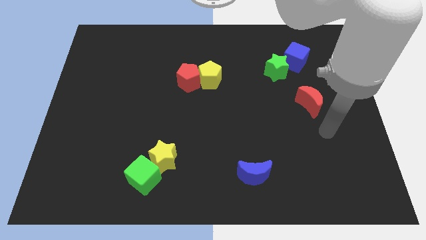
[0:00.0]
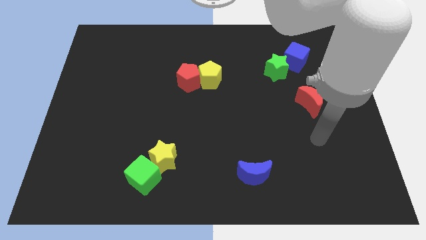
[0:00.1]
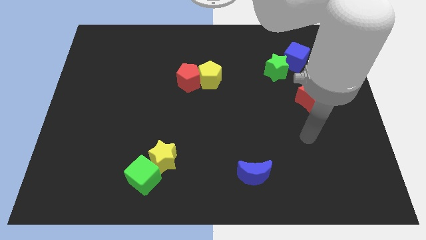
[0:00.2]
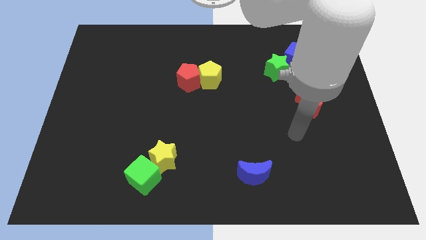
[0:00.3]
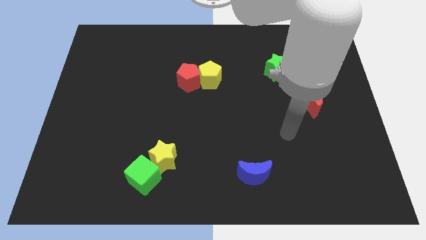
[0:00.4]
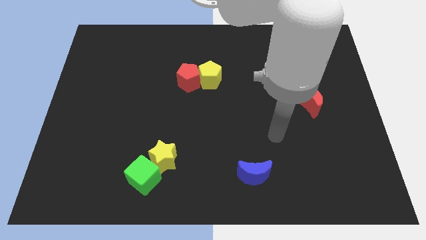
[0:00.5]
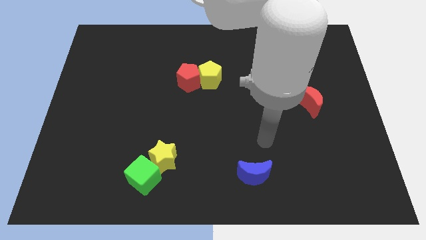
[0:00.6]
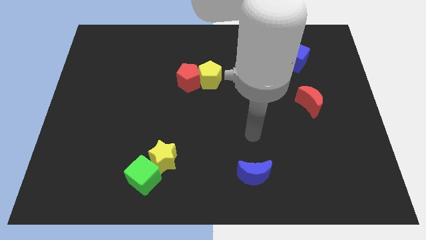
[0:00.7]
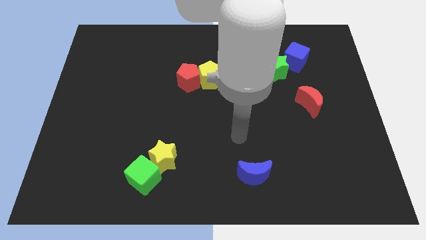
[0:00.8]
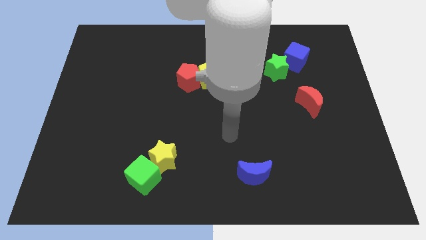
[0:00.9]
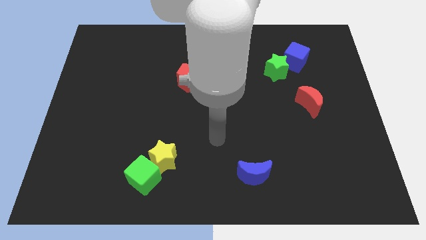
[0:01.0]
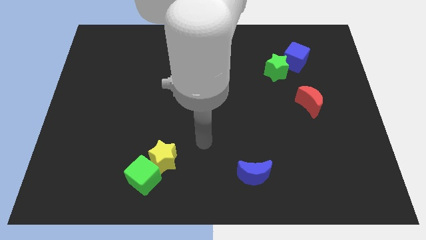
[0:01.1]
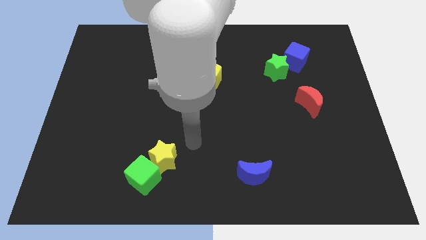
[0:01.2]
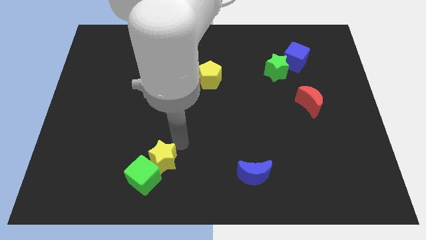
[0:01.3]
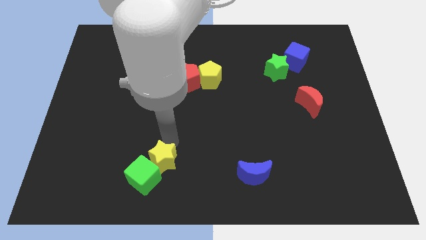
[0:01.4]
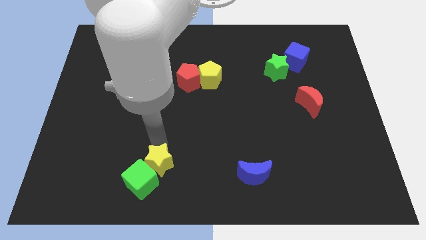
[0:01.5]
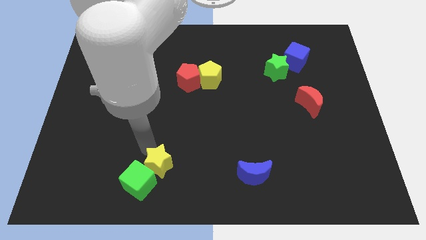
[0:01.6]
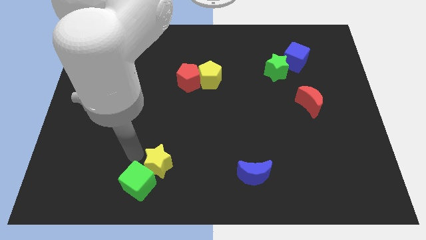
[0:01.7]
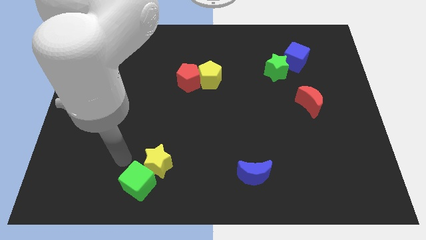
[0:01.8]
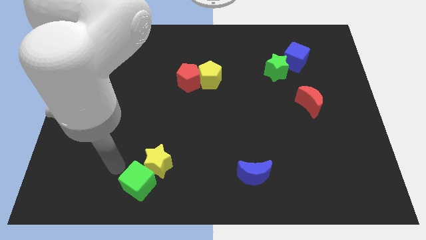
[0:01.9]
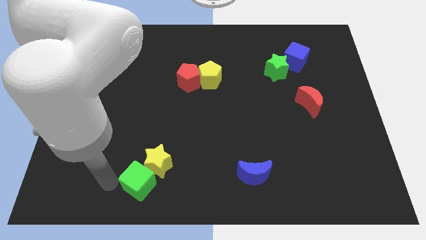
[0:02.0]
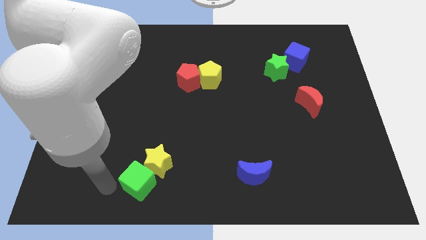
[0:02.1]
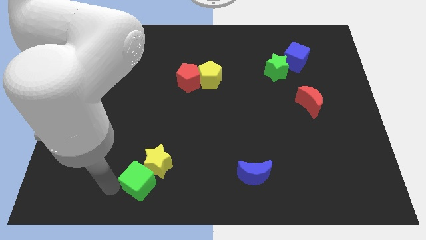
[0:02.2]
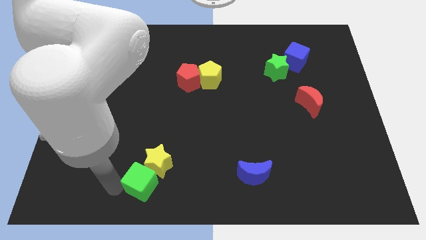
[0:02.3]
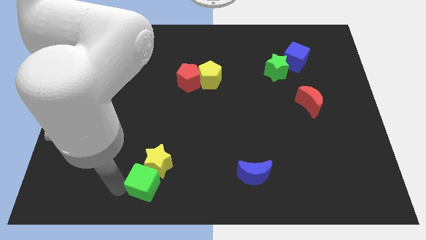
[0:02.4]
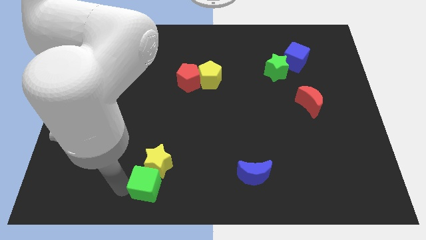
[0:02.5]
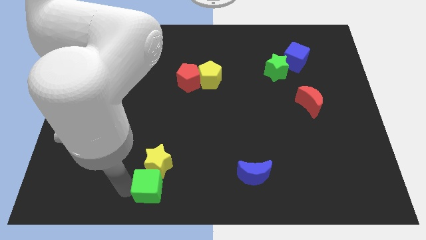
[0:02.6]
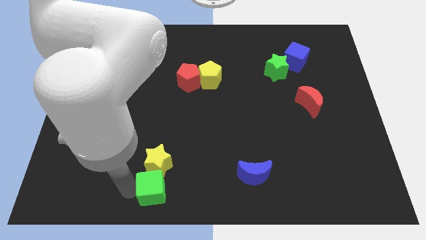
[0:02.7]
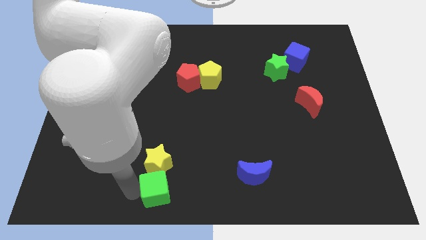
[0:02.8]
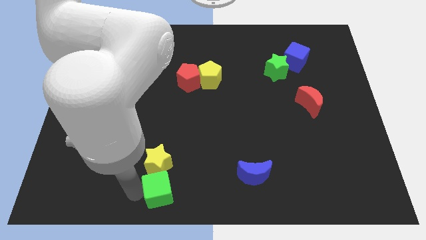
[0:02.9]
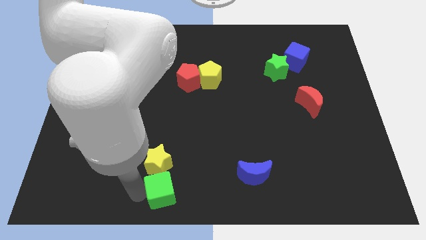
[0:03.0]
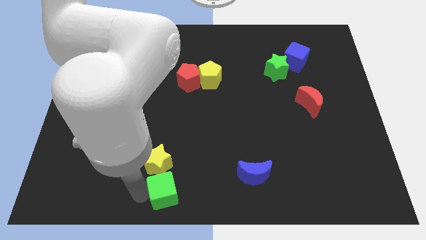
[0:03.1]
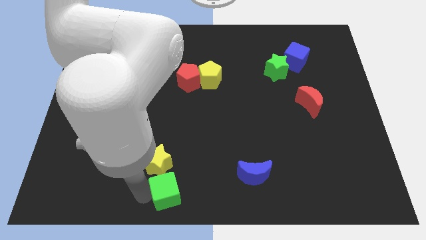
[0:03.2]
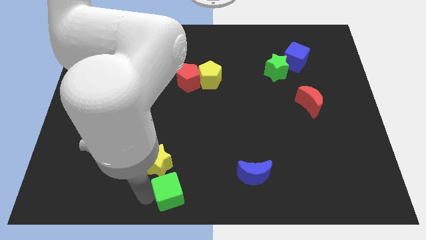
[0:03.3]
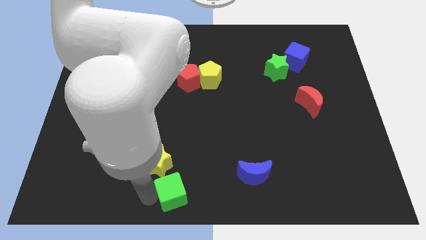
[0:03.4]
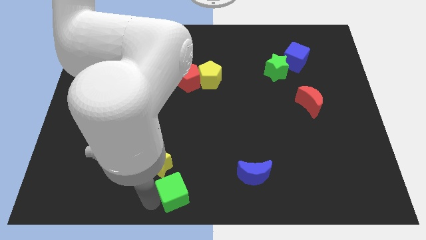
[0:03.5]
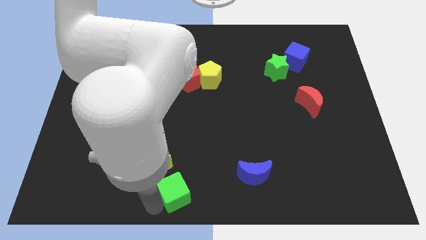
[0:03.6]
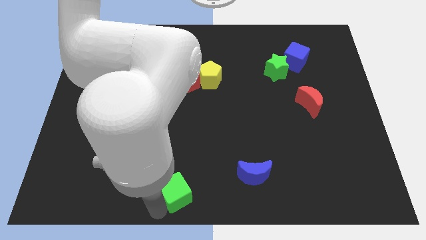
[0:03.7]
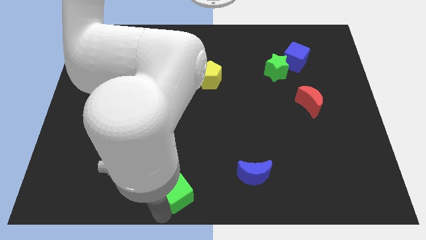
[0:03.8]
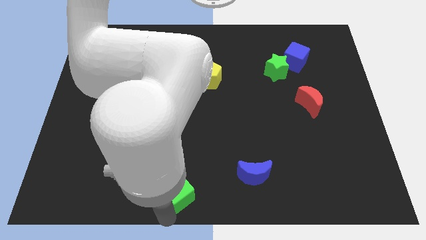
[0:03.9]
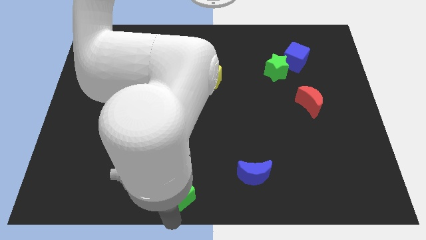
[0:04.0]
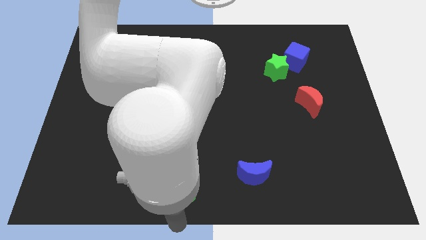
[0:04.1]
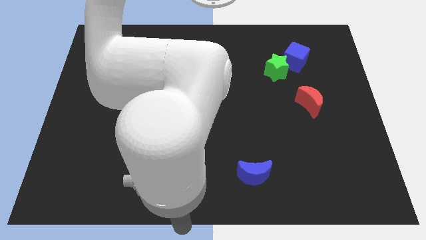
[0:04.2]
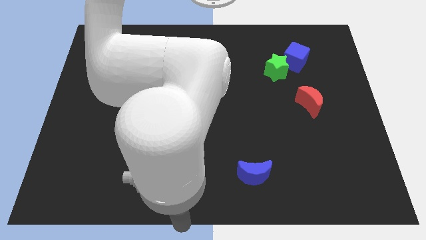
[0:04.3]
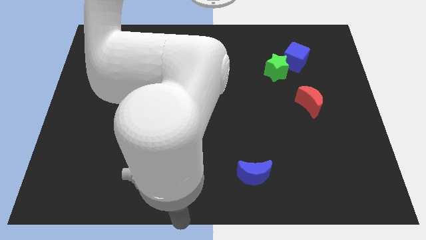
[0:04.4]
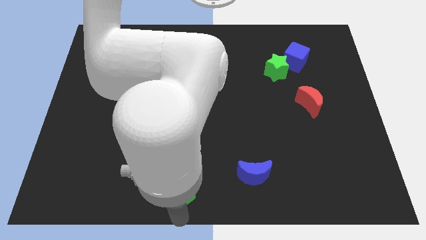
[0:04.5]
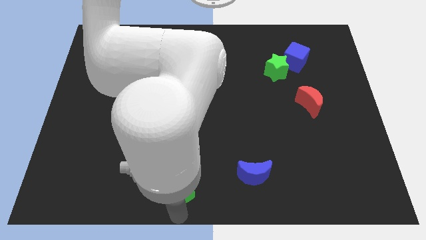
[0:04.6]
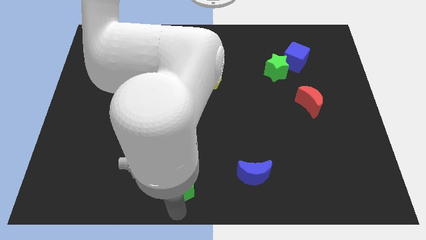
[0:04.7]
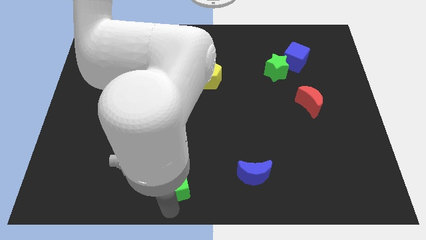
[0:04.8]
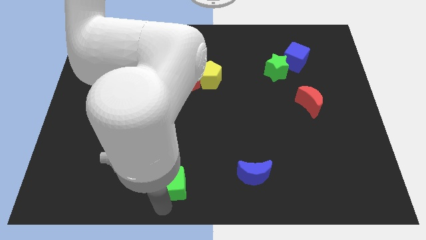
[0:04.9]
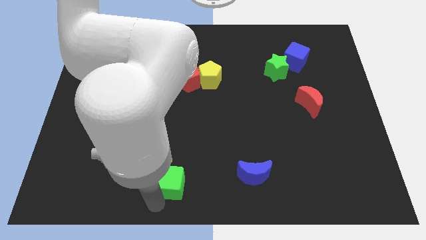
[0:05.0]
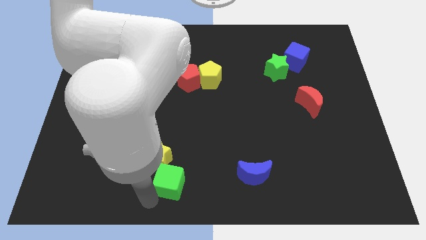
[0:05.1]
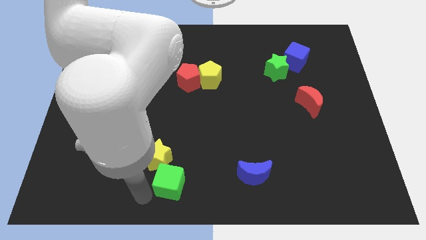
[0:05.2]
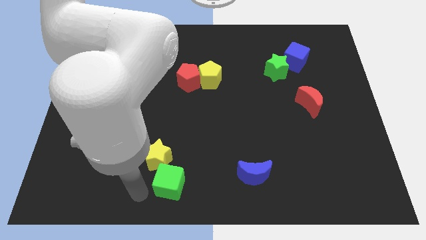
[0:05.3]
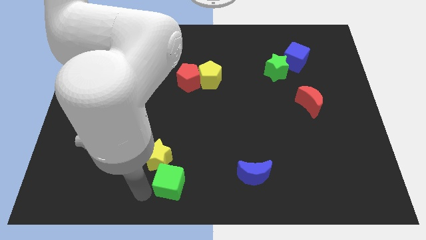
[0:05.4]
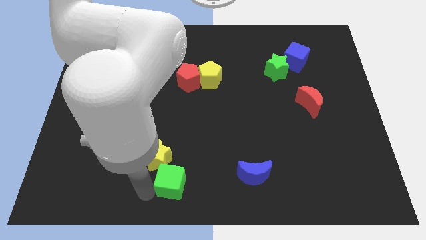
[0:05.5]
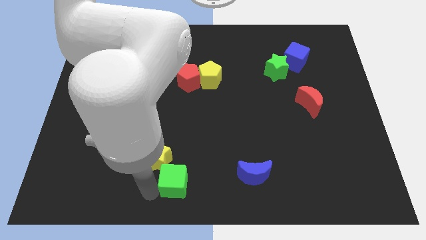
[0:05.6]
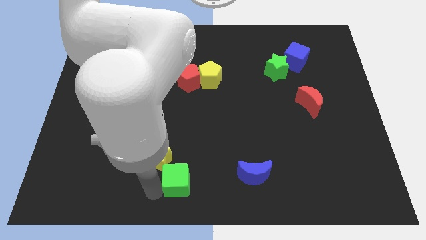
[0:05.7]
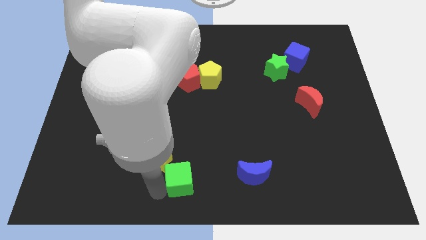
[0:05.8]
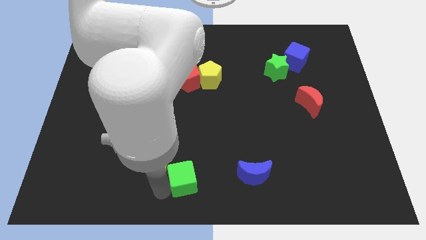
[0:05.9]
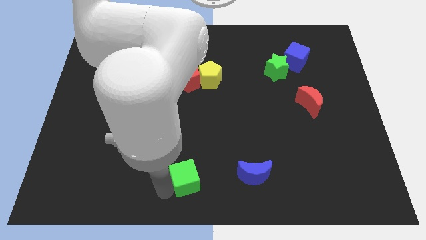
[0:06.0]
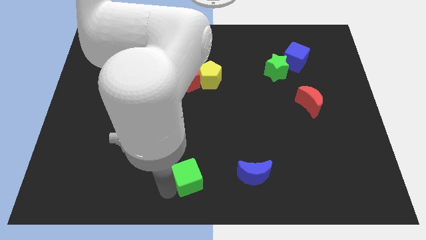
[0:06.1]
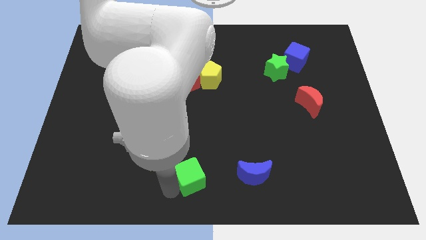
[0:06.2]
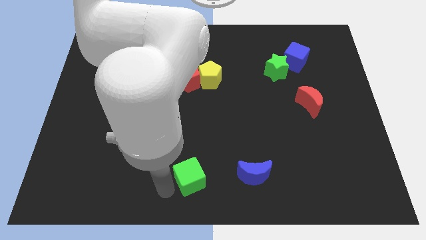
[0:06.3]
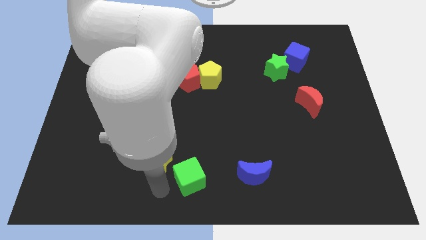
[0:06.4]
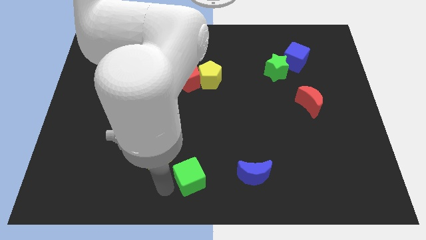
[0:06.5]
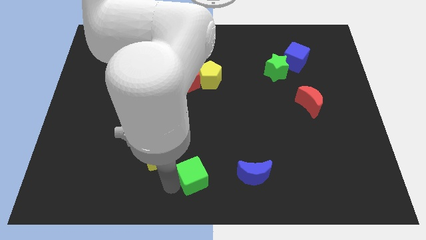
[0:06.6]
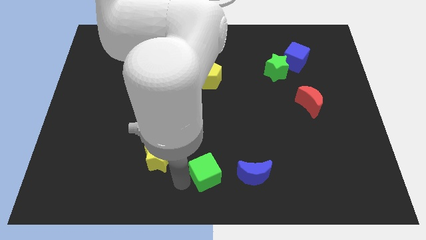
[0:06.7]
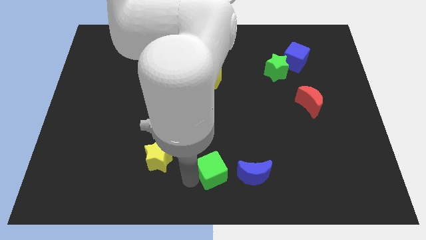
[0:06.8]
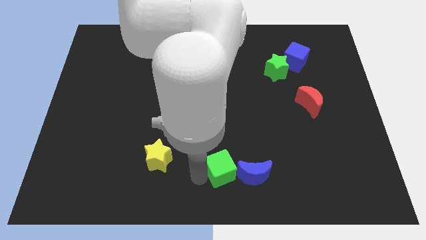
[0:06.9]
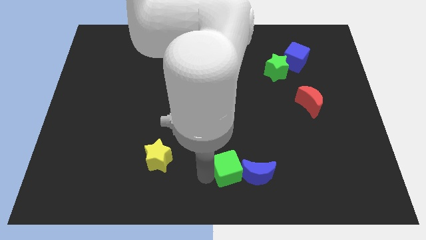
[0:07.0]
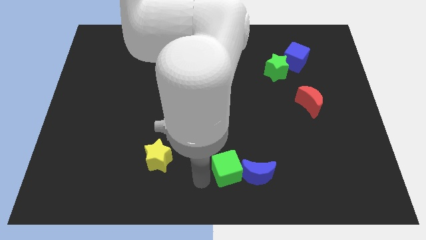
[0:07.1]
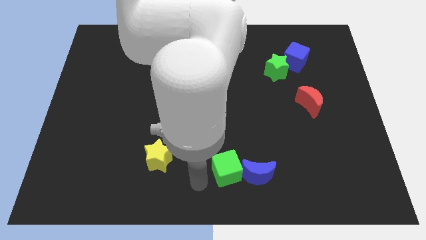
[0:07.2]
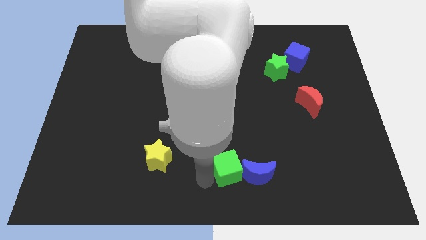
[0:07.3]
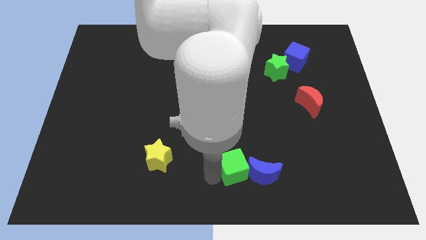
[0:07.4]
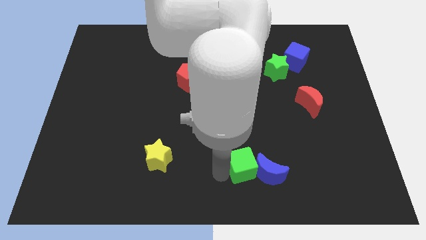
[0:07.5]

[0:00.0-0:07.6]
push the green cube to the right
